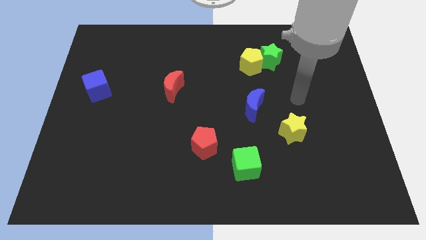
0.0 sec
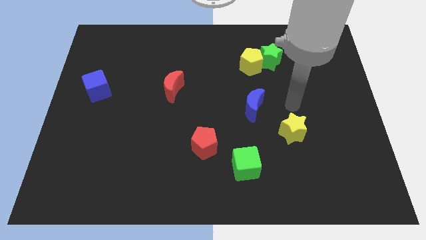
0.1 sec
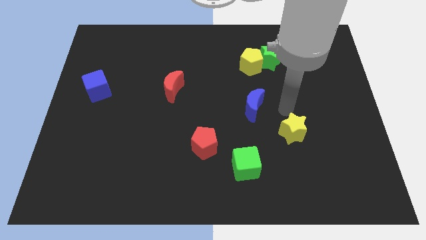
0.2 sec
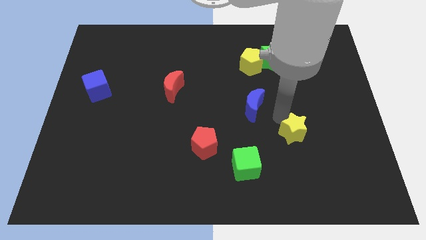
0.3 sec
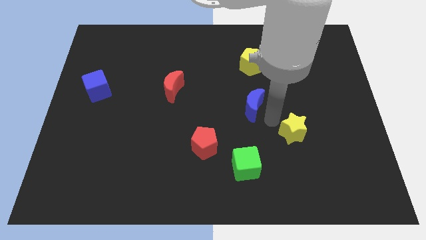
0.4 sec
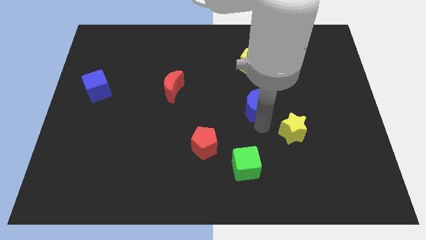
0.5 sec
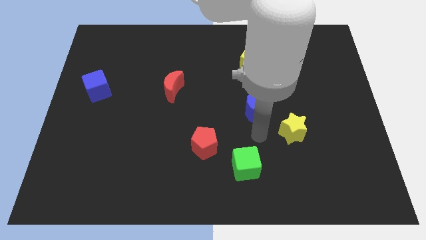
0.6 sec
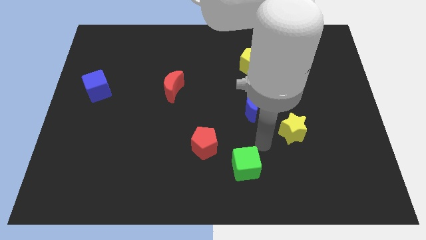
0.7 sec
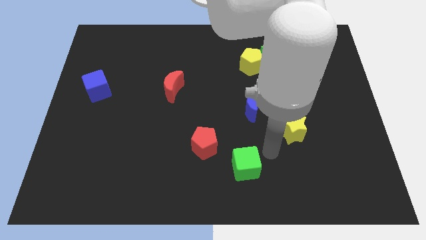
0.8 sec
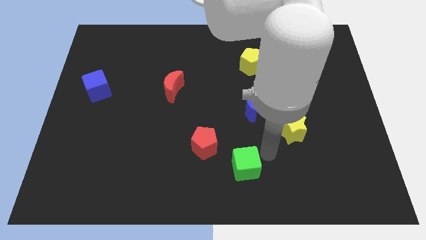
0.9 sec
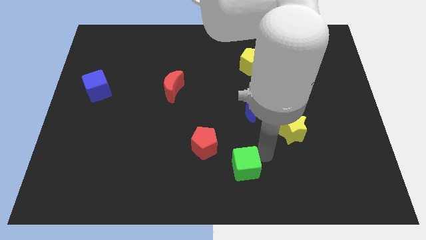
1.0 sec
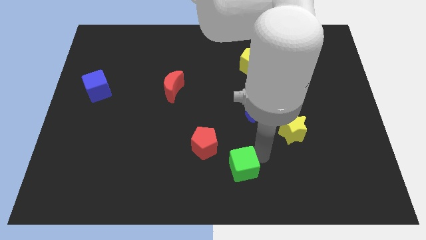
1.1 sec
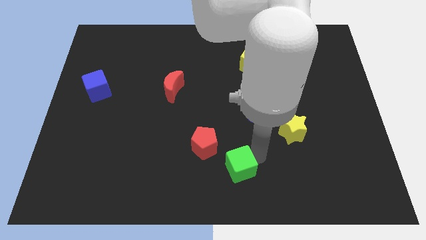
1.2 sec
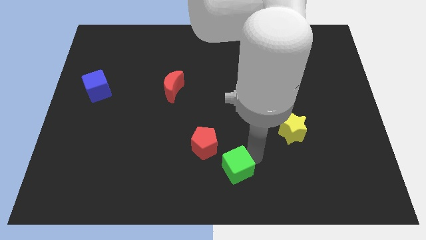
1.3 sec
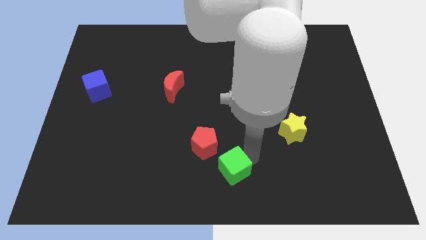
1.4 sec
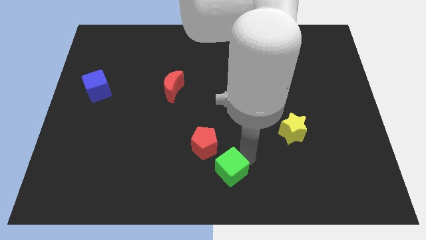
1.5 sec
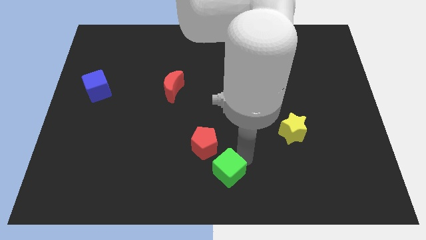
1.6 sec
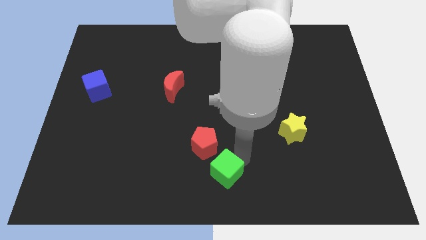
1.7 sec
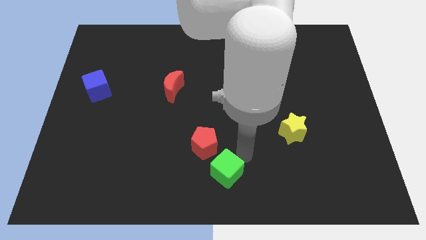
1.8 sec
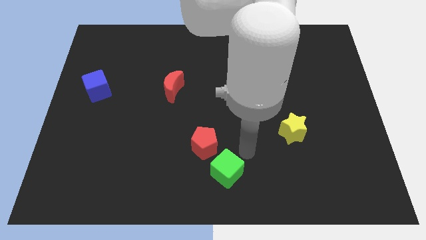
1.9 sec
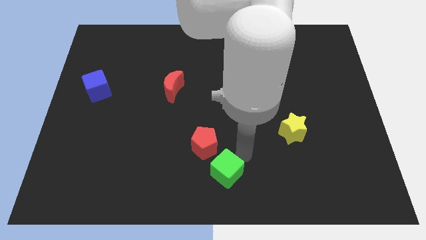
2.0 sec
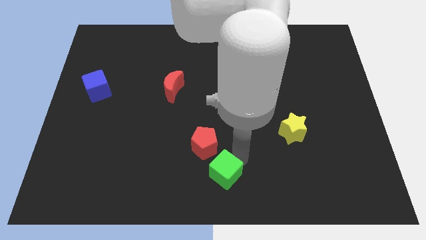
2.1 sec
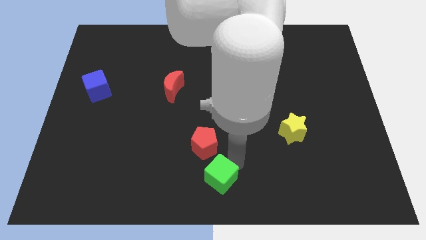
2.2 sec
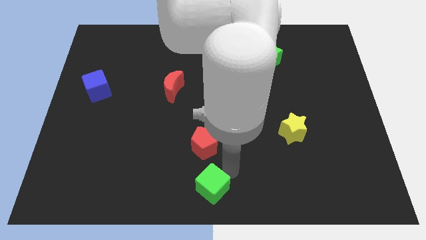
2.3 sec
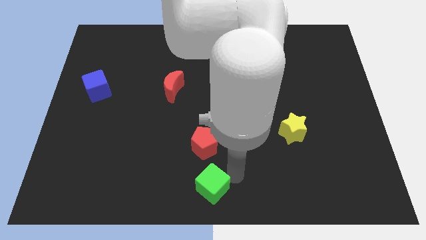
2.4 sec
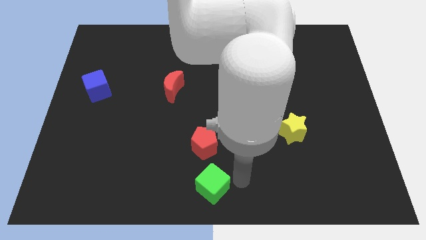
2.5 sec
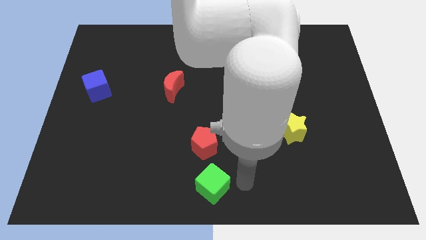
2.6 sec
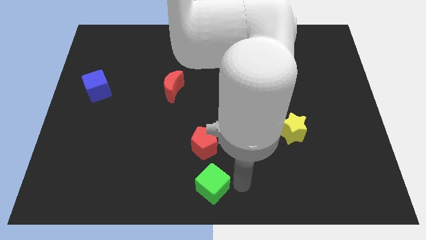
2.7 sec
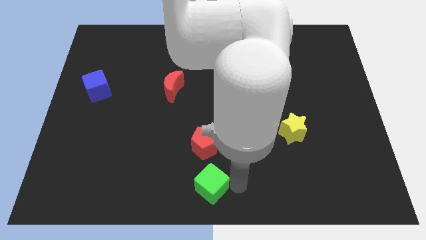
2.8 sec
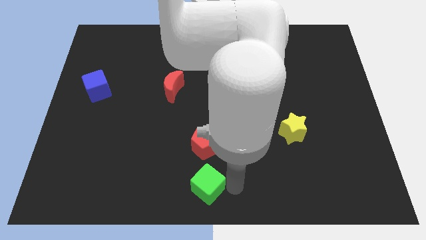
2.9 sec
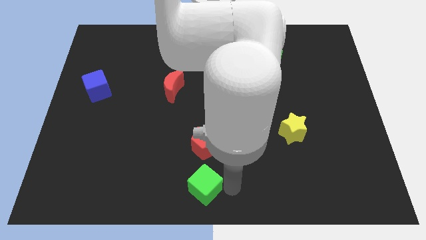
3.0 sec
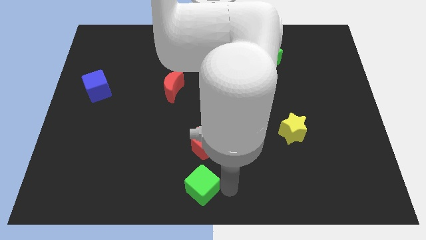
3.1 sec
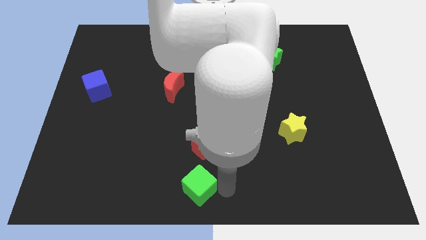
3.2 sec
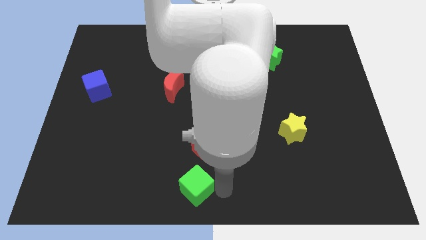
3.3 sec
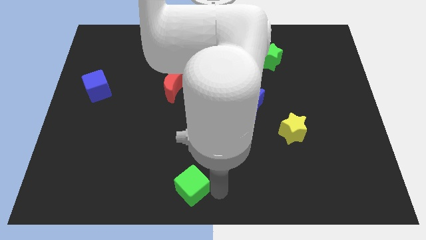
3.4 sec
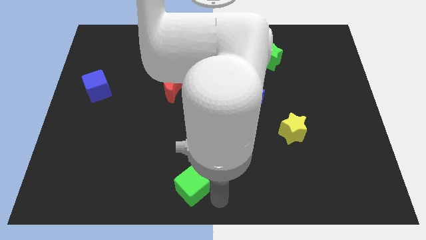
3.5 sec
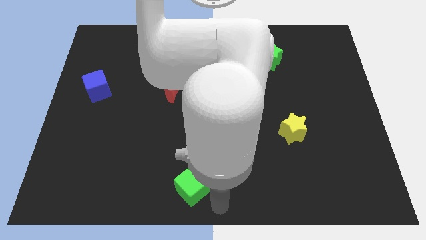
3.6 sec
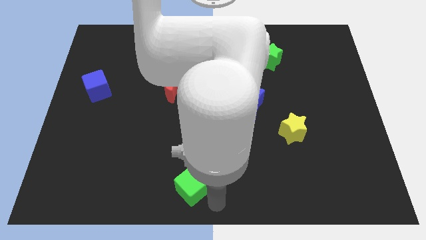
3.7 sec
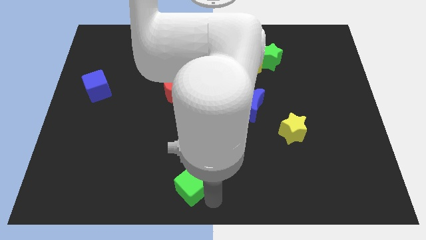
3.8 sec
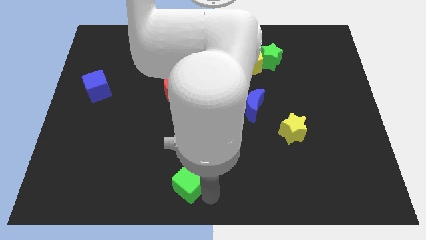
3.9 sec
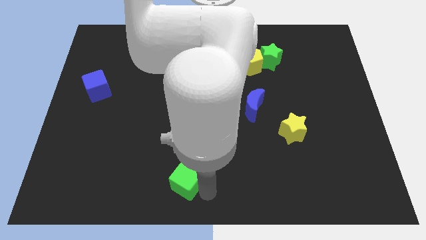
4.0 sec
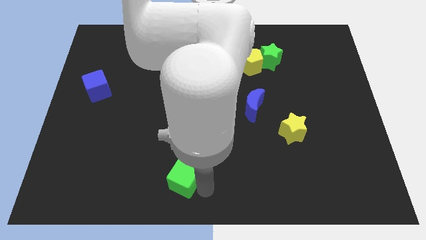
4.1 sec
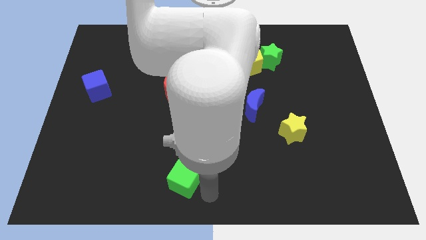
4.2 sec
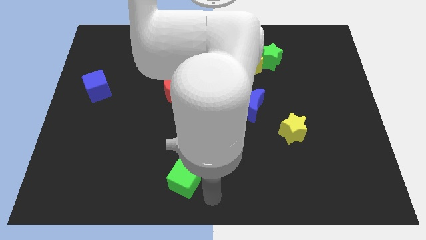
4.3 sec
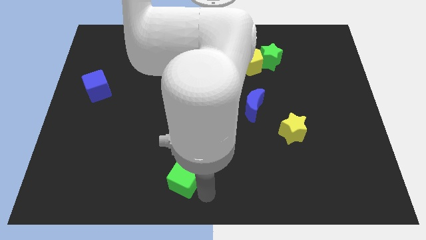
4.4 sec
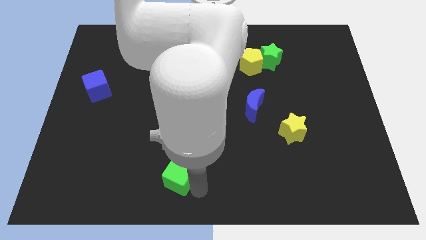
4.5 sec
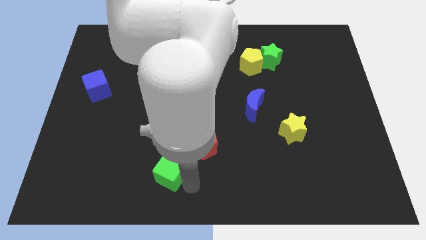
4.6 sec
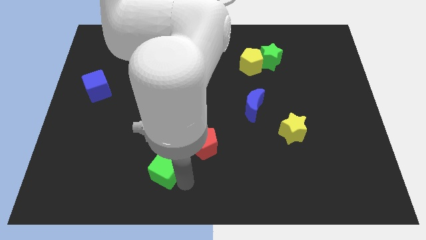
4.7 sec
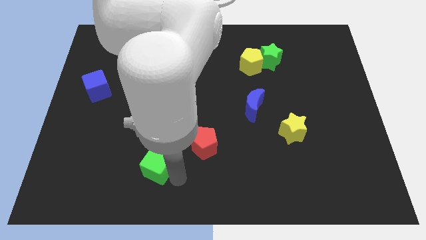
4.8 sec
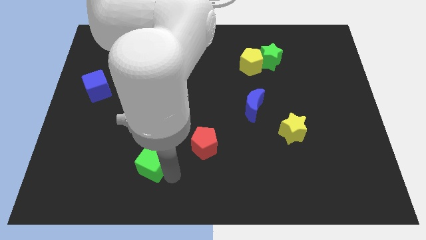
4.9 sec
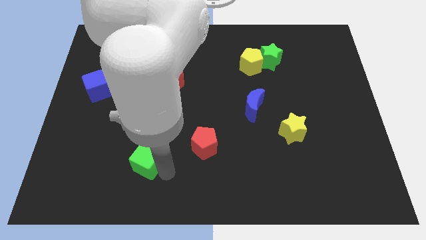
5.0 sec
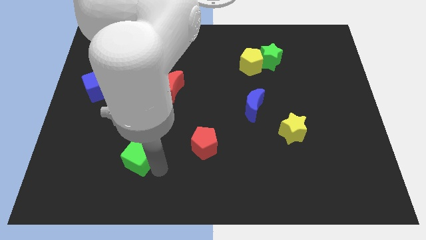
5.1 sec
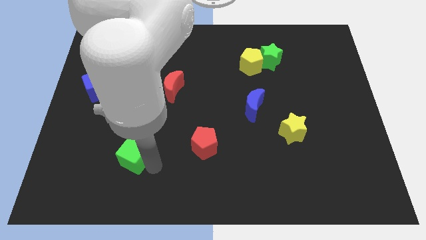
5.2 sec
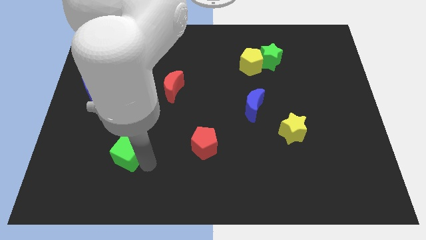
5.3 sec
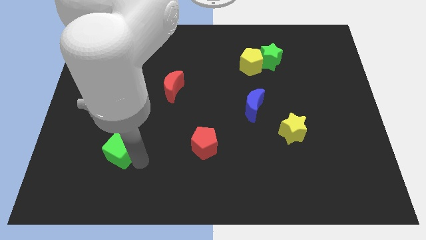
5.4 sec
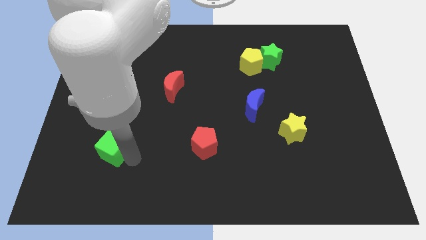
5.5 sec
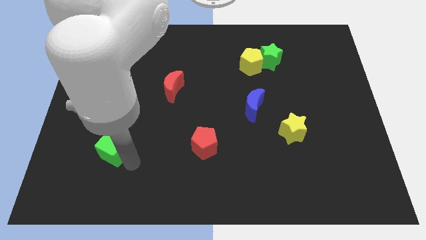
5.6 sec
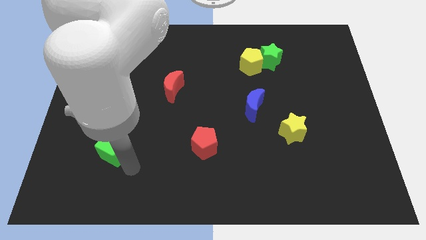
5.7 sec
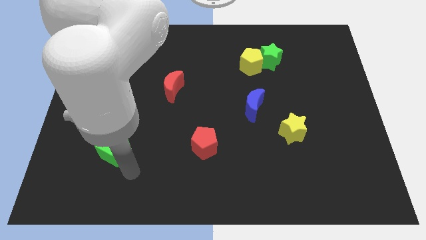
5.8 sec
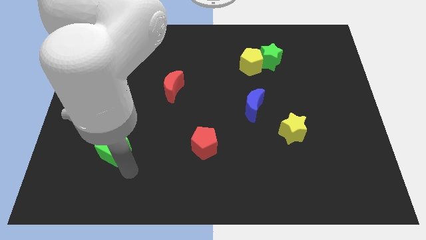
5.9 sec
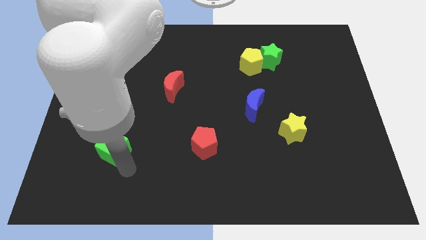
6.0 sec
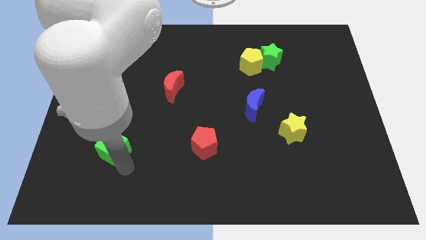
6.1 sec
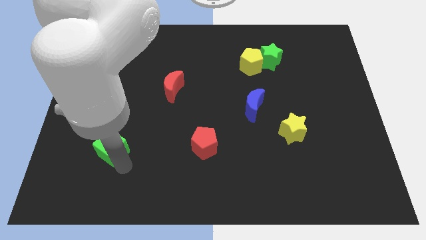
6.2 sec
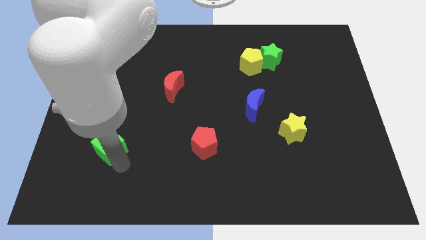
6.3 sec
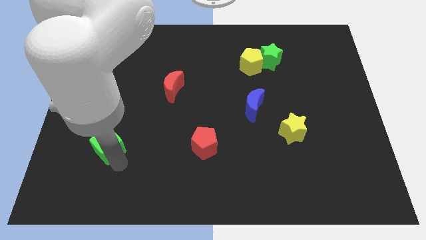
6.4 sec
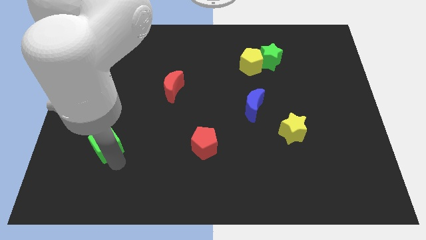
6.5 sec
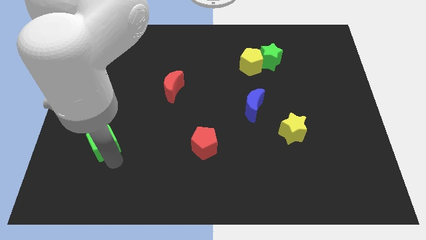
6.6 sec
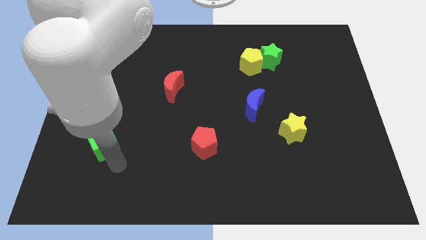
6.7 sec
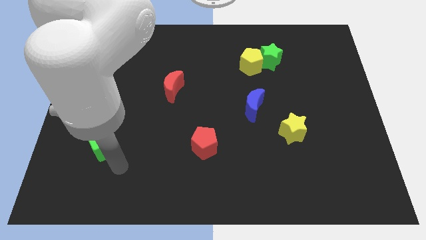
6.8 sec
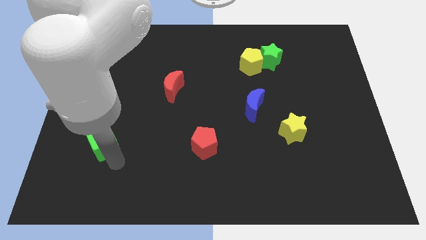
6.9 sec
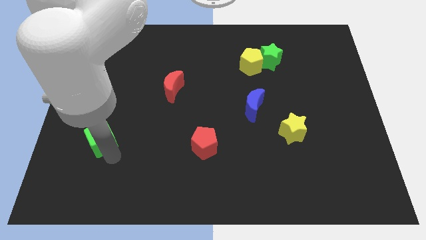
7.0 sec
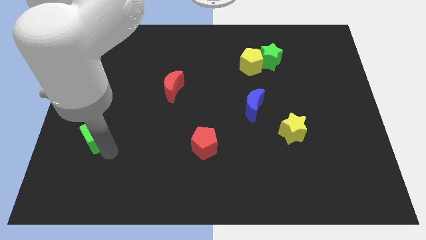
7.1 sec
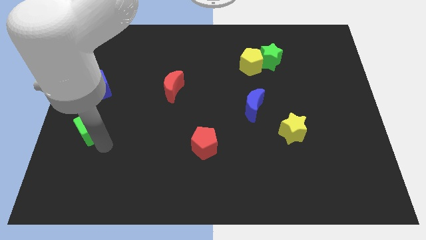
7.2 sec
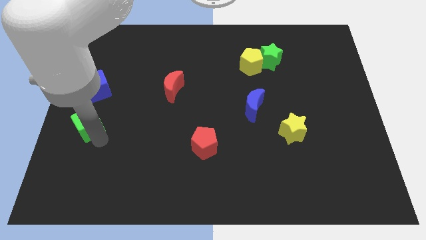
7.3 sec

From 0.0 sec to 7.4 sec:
move the green cube to the left side
